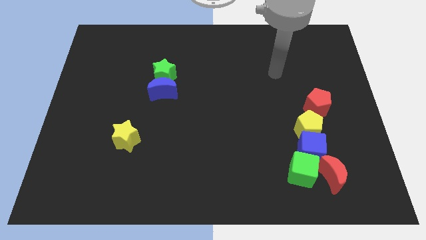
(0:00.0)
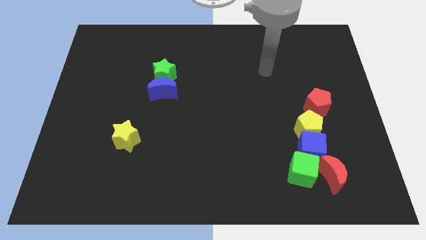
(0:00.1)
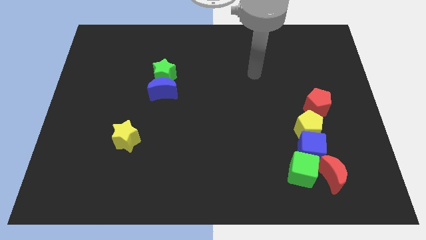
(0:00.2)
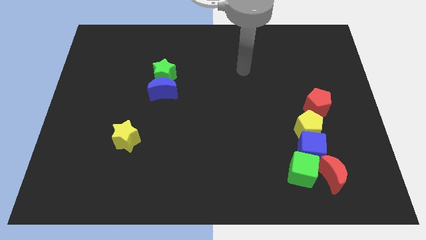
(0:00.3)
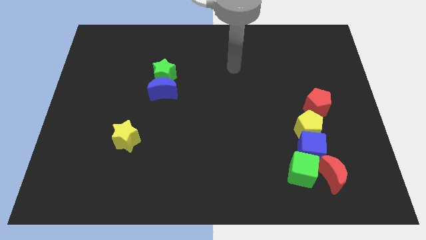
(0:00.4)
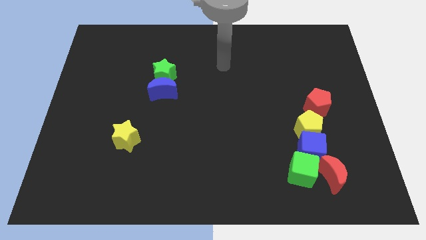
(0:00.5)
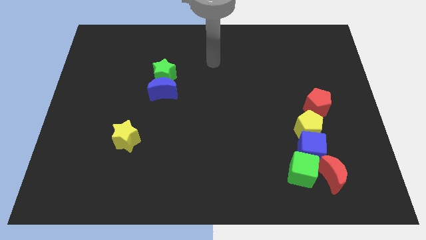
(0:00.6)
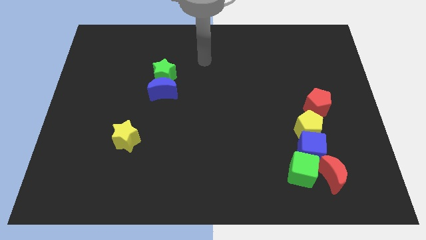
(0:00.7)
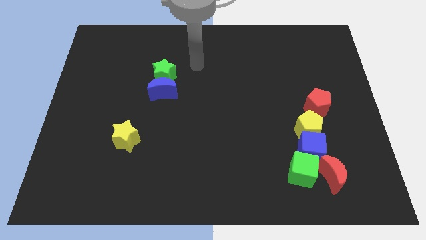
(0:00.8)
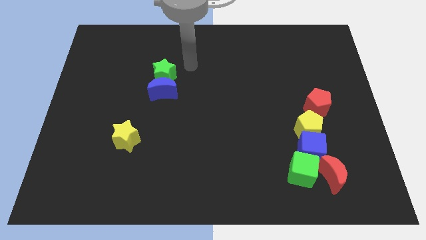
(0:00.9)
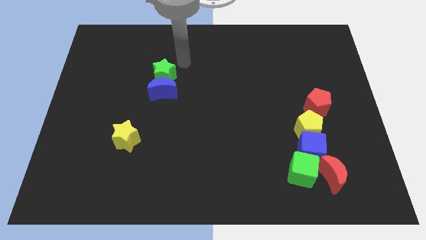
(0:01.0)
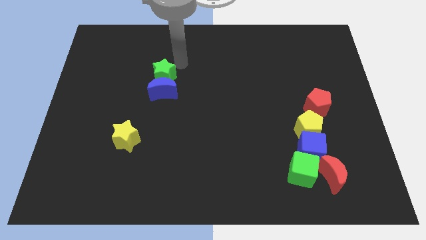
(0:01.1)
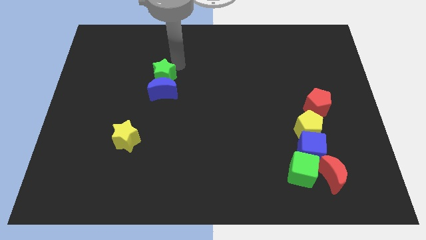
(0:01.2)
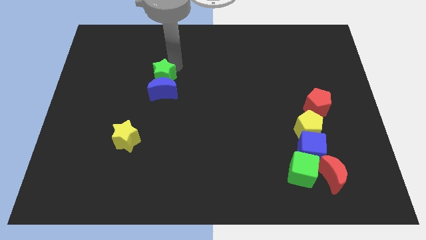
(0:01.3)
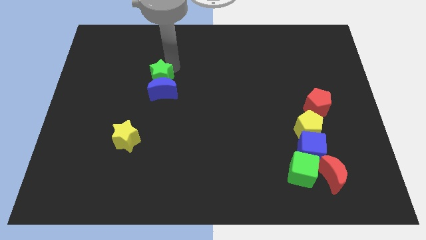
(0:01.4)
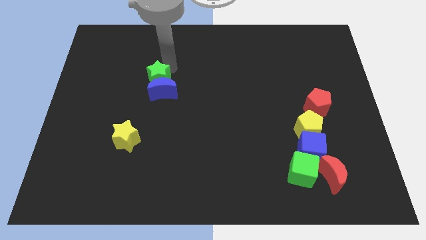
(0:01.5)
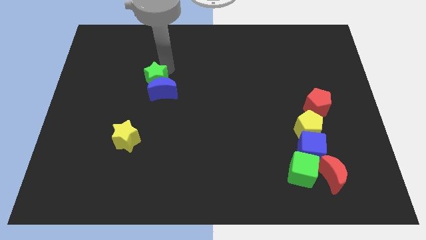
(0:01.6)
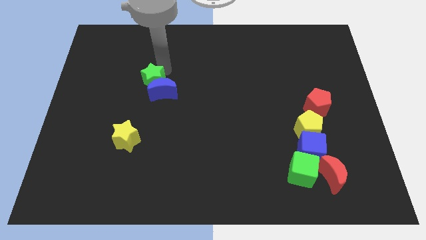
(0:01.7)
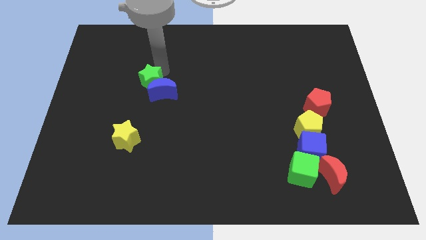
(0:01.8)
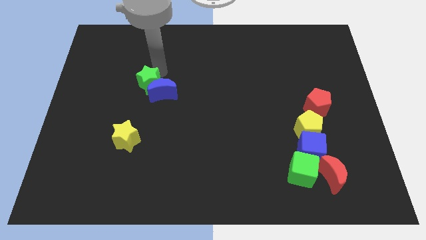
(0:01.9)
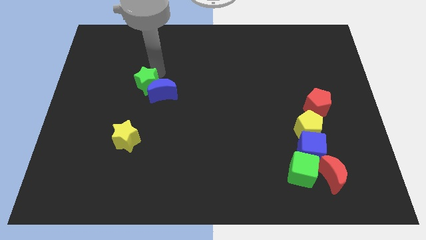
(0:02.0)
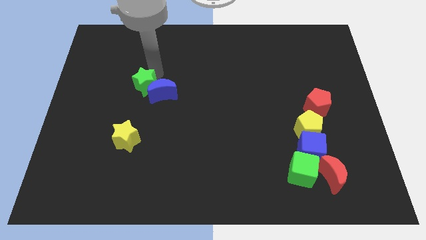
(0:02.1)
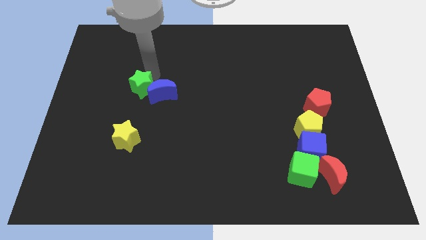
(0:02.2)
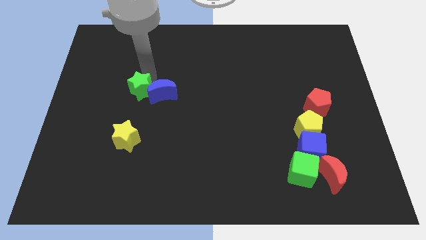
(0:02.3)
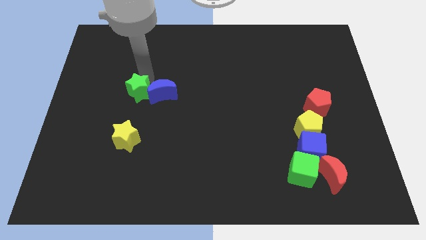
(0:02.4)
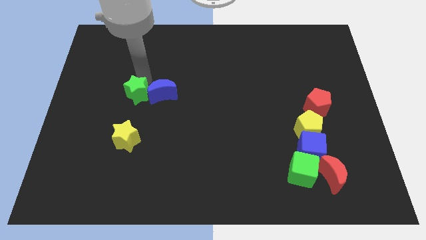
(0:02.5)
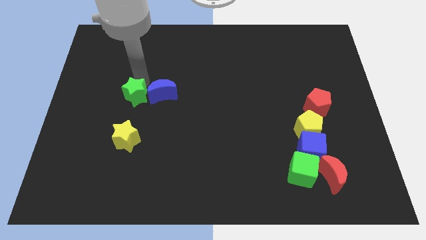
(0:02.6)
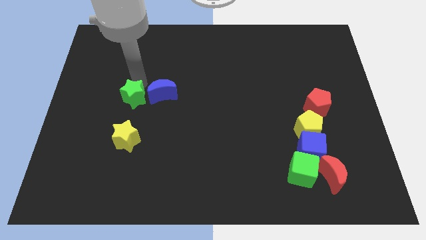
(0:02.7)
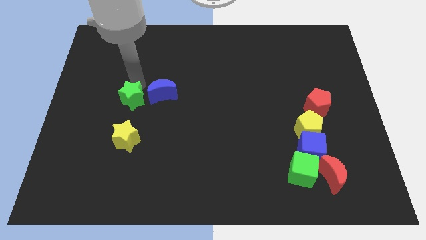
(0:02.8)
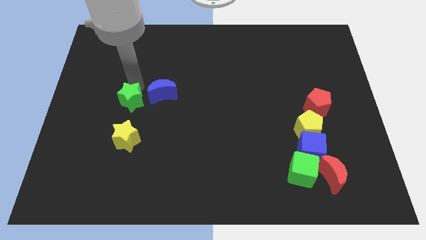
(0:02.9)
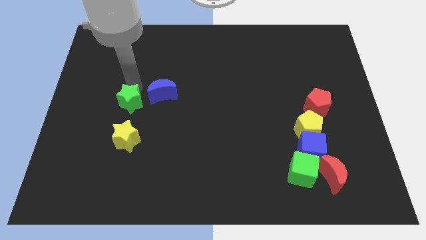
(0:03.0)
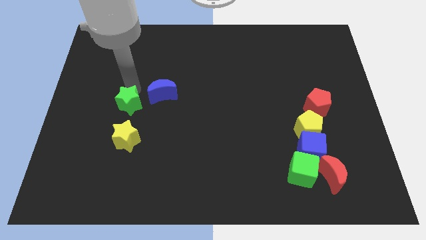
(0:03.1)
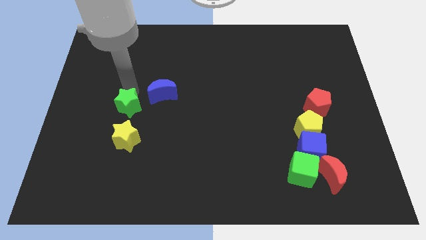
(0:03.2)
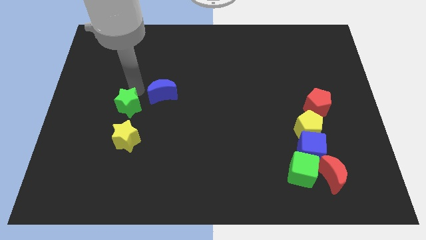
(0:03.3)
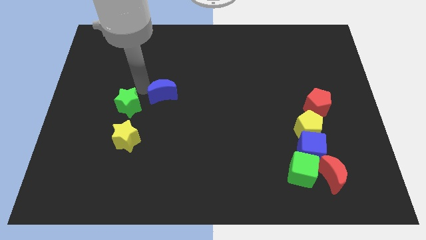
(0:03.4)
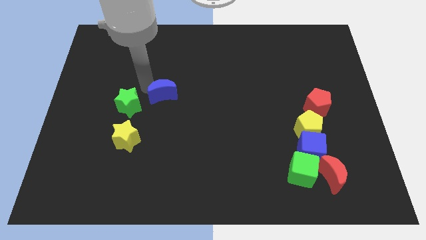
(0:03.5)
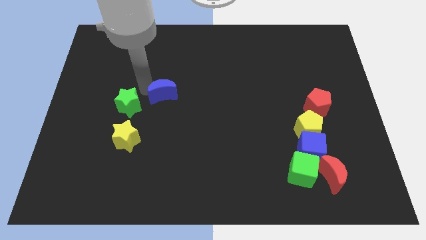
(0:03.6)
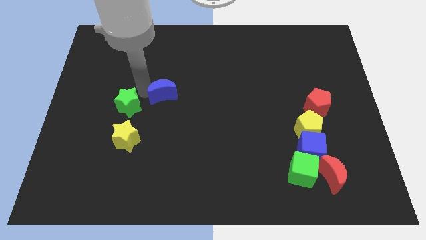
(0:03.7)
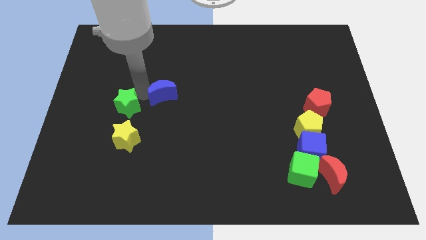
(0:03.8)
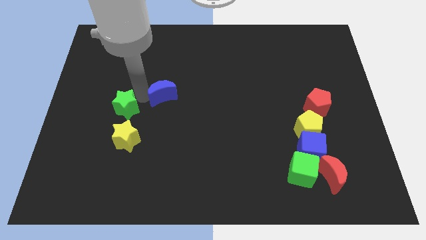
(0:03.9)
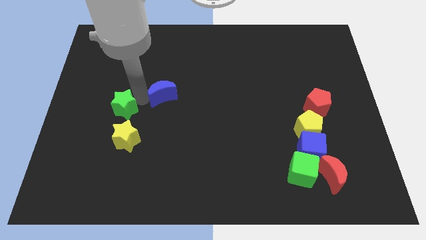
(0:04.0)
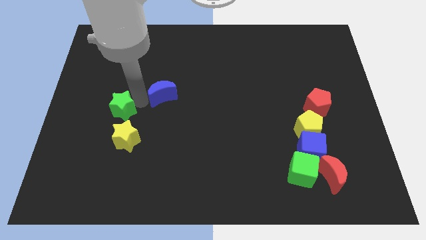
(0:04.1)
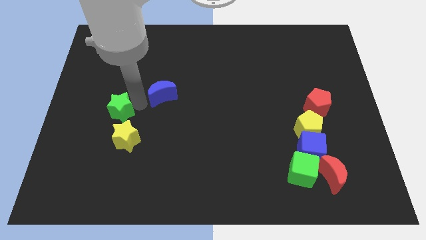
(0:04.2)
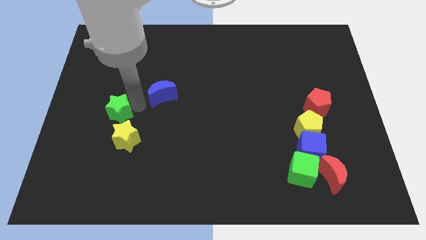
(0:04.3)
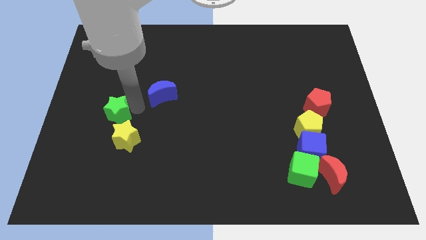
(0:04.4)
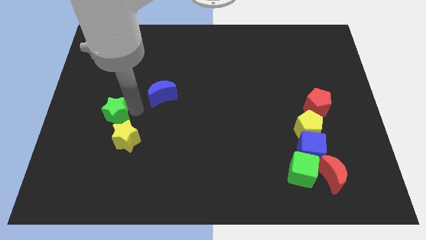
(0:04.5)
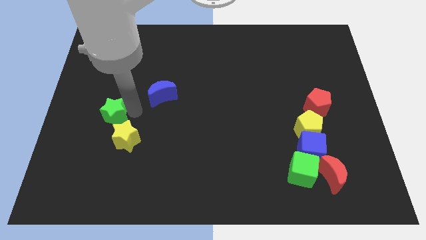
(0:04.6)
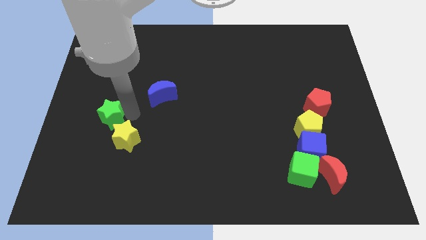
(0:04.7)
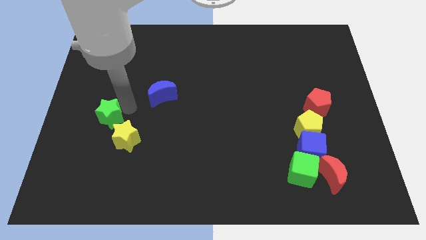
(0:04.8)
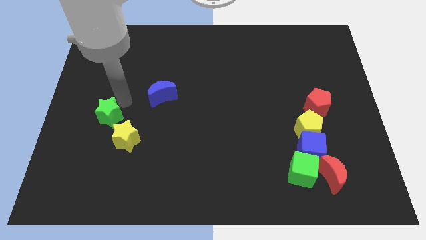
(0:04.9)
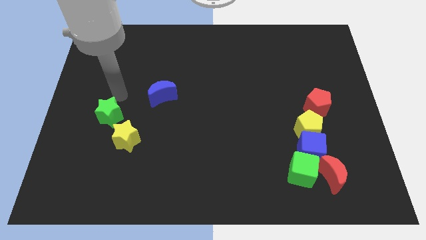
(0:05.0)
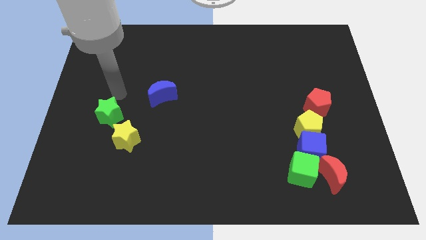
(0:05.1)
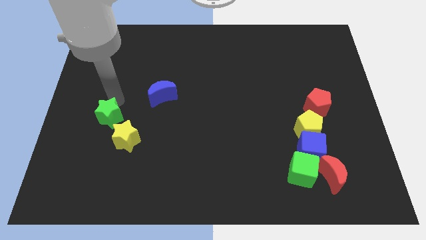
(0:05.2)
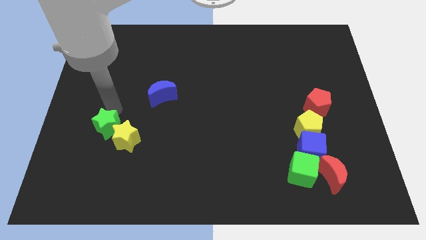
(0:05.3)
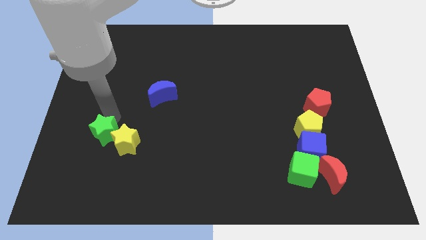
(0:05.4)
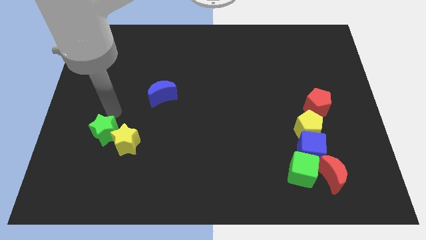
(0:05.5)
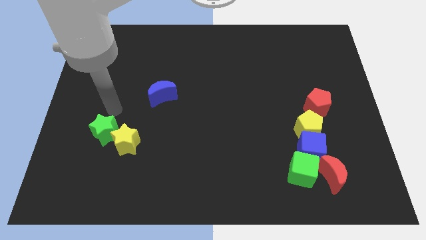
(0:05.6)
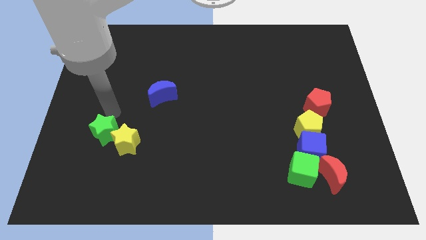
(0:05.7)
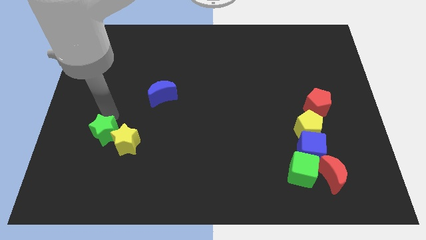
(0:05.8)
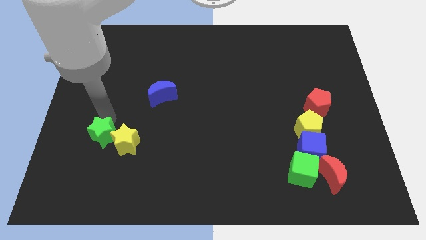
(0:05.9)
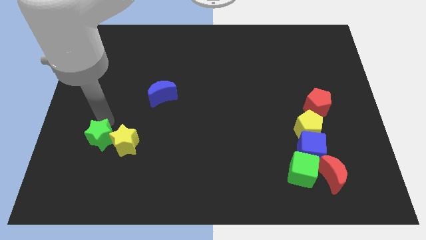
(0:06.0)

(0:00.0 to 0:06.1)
put the green star diagonally down and to the left of the yellow star

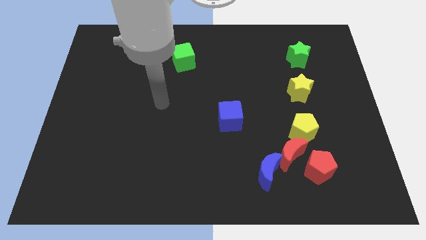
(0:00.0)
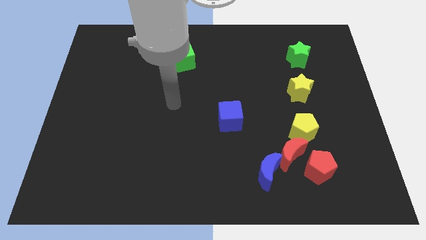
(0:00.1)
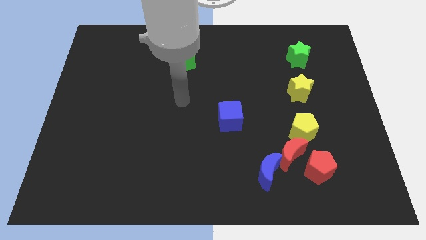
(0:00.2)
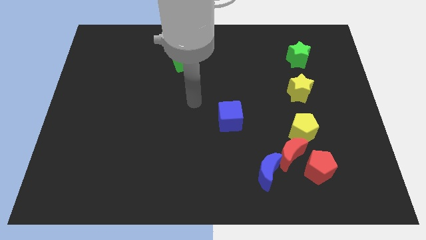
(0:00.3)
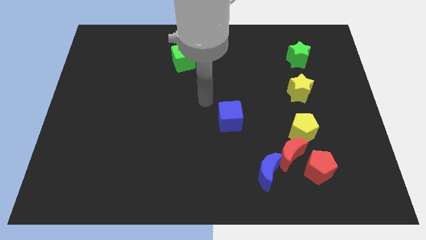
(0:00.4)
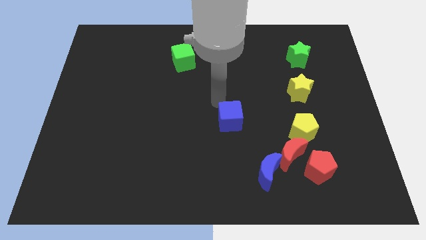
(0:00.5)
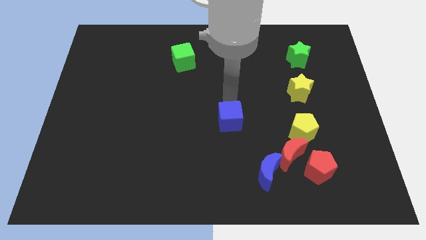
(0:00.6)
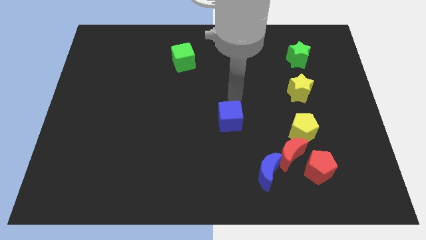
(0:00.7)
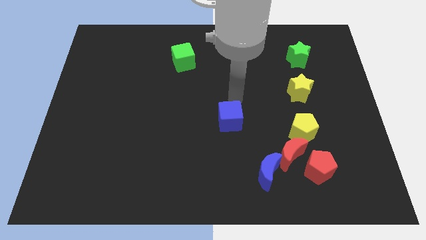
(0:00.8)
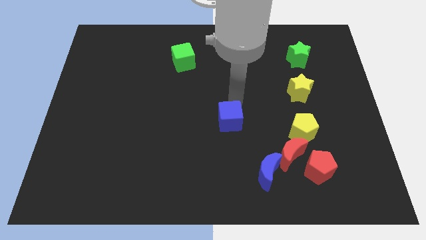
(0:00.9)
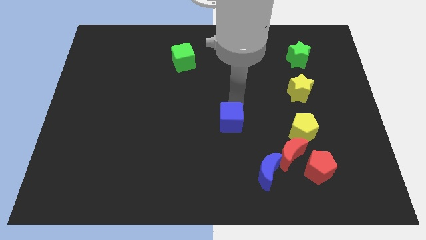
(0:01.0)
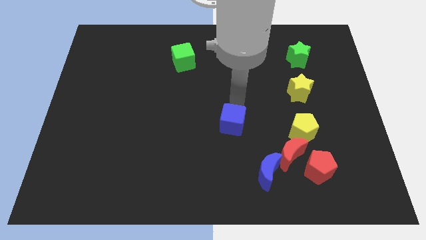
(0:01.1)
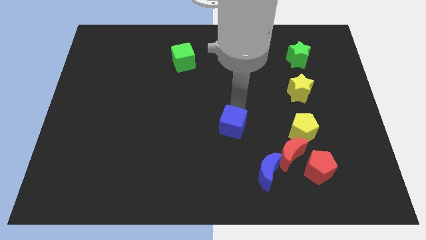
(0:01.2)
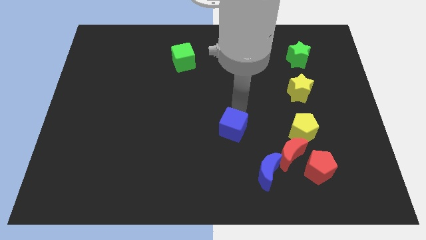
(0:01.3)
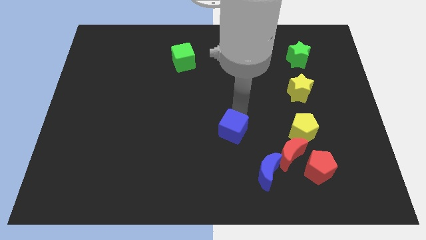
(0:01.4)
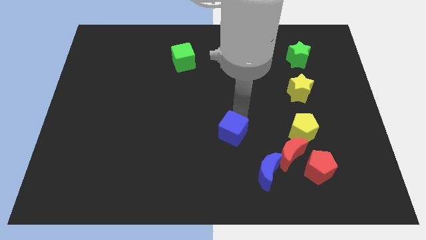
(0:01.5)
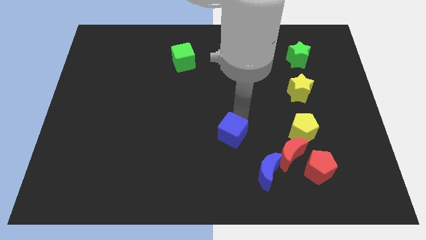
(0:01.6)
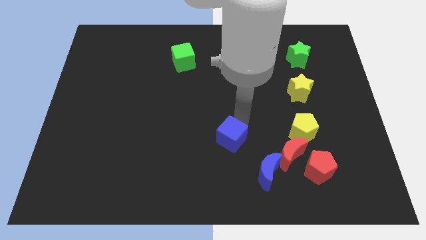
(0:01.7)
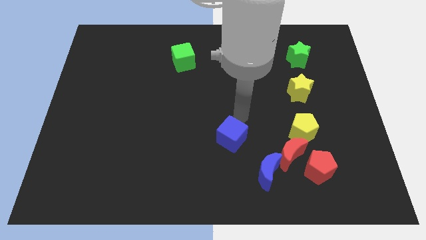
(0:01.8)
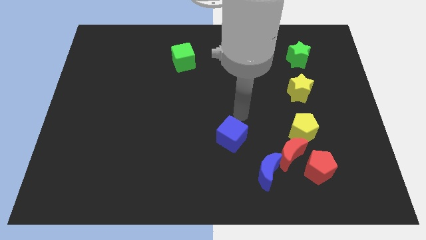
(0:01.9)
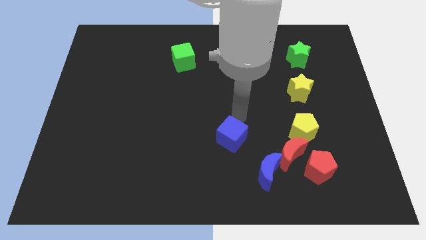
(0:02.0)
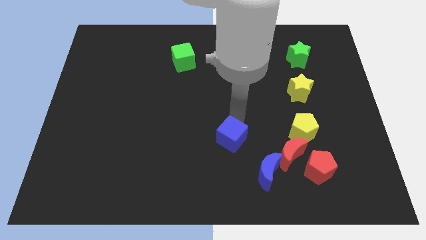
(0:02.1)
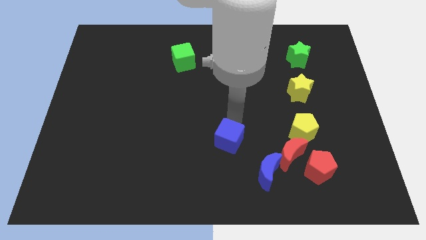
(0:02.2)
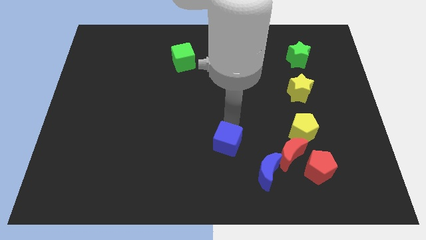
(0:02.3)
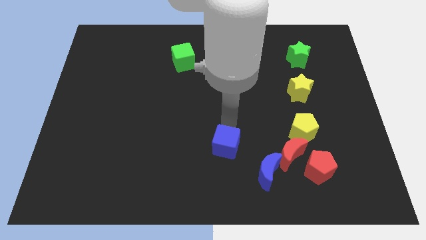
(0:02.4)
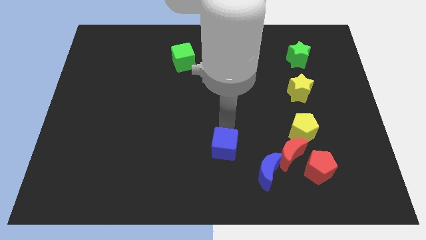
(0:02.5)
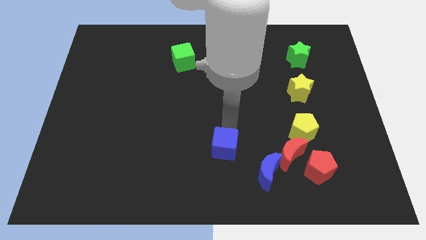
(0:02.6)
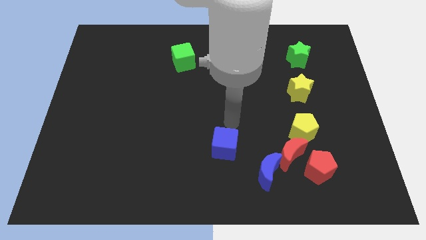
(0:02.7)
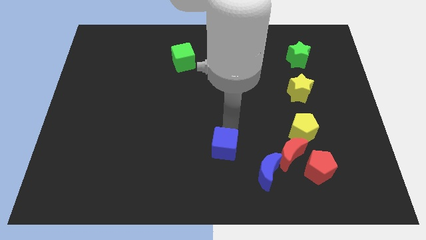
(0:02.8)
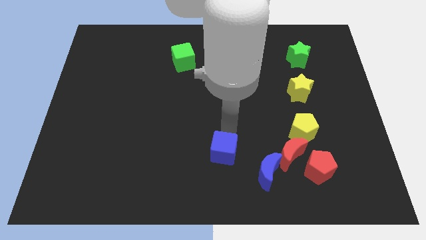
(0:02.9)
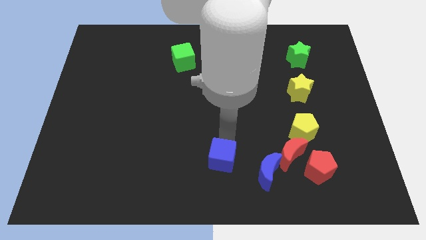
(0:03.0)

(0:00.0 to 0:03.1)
push the blue cube left of the blue moon
